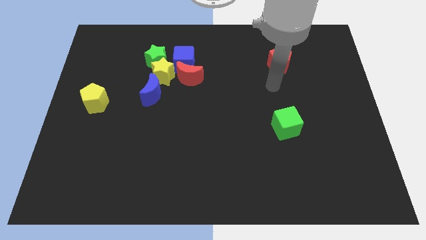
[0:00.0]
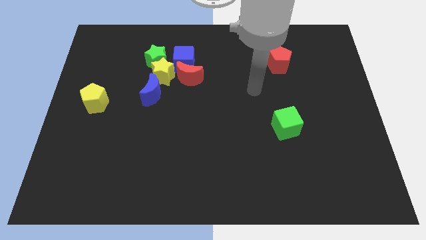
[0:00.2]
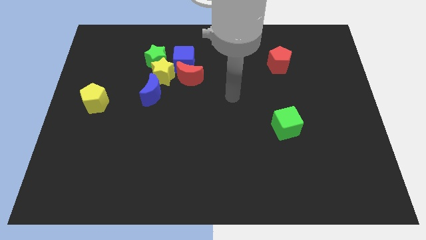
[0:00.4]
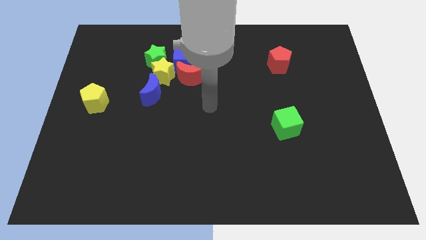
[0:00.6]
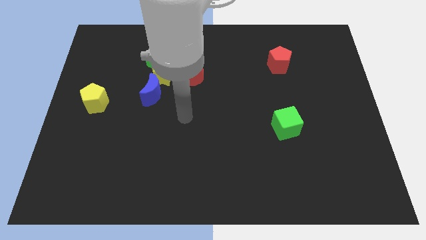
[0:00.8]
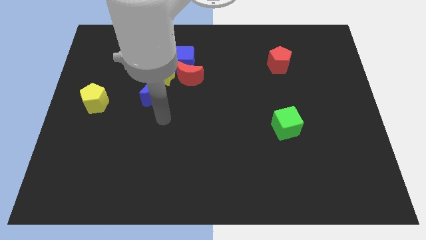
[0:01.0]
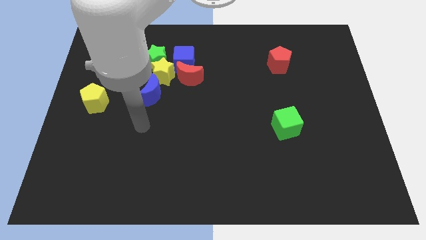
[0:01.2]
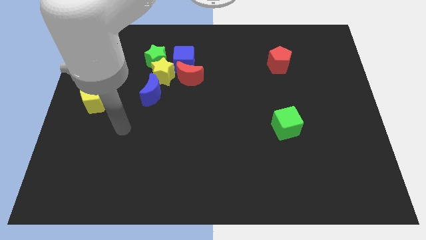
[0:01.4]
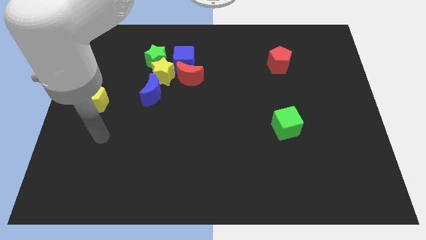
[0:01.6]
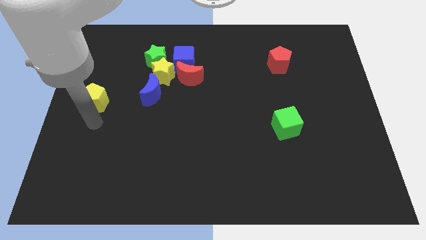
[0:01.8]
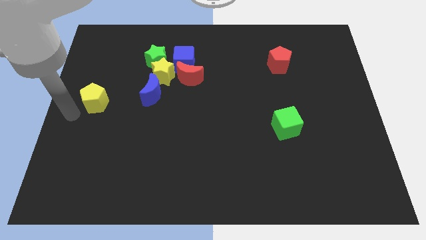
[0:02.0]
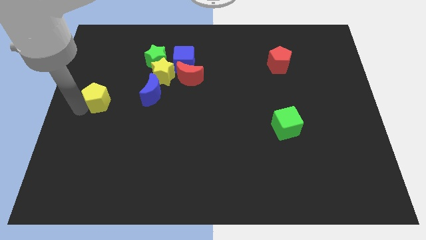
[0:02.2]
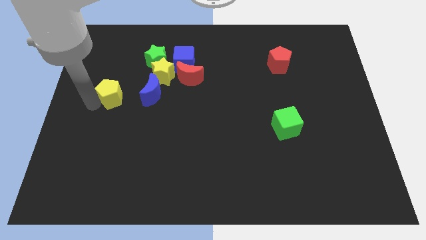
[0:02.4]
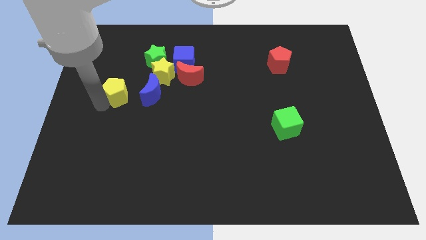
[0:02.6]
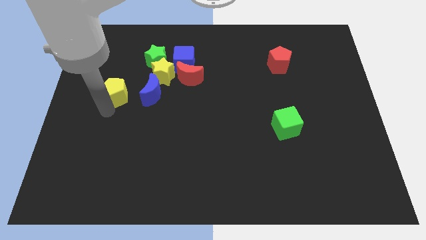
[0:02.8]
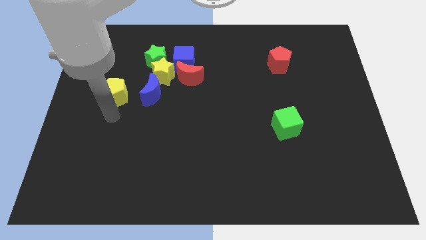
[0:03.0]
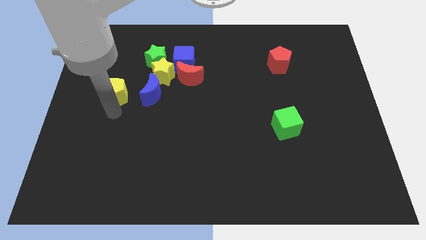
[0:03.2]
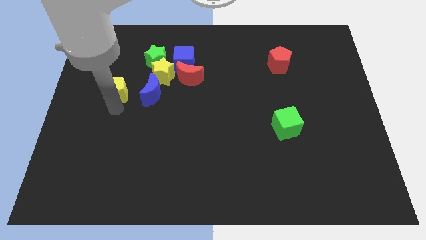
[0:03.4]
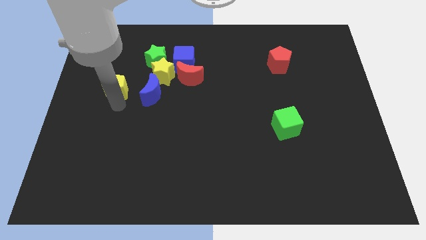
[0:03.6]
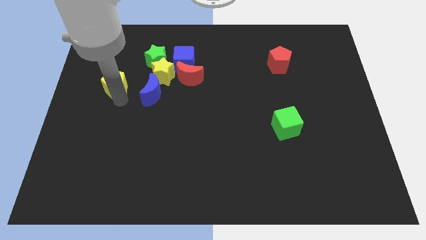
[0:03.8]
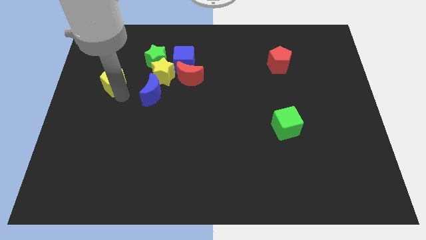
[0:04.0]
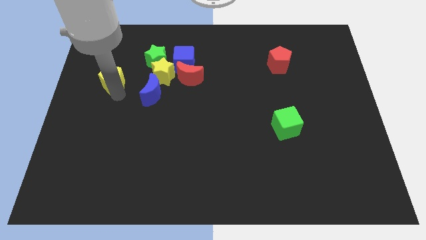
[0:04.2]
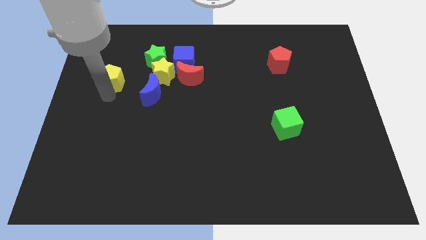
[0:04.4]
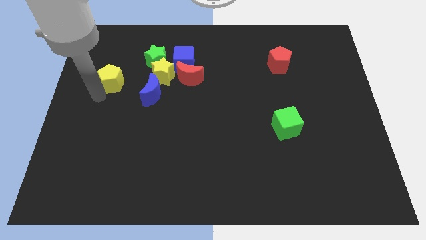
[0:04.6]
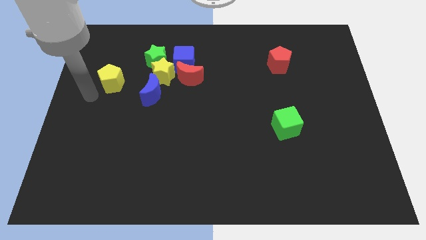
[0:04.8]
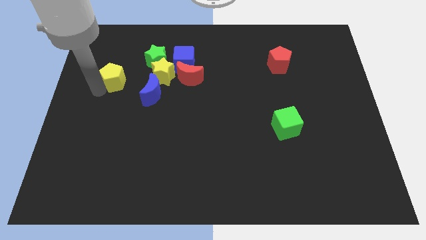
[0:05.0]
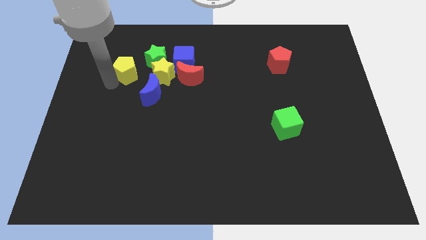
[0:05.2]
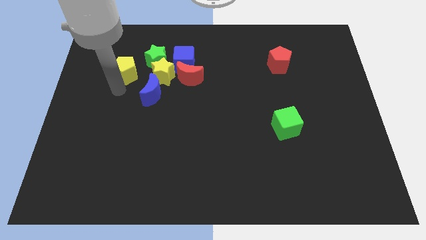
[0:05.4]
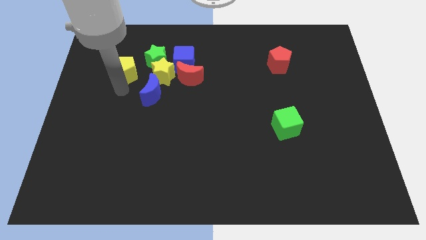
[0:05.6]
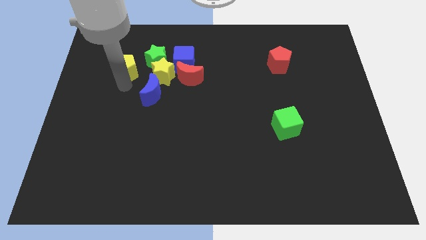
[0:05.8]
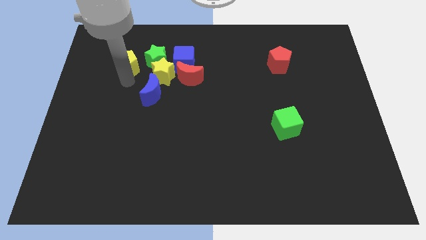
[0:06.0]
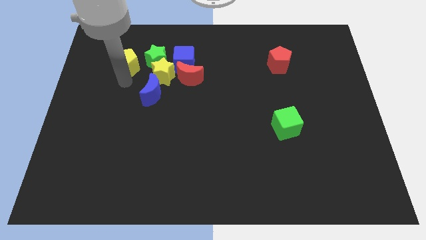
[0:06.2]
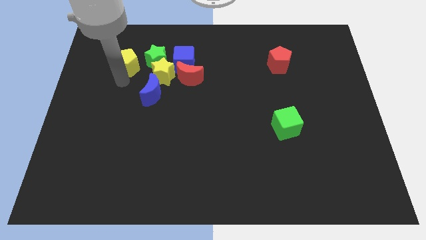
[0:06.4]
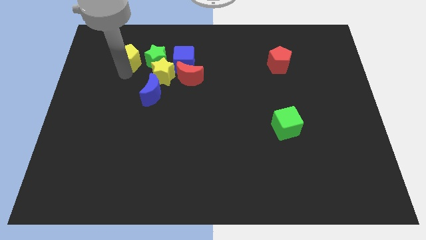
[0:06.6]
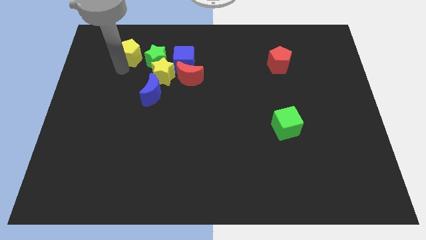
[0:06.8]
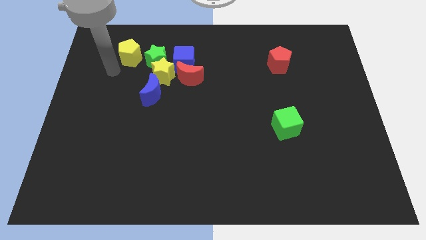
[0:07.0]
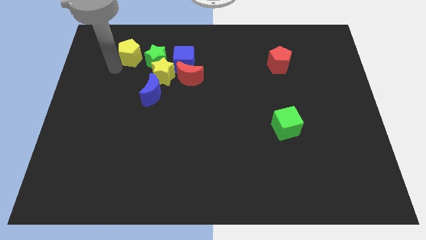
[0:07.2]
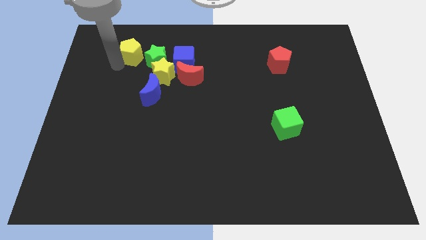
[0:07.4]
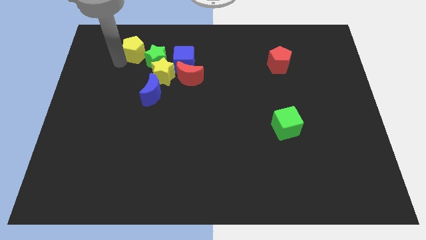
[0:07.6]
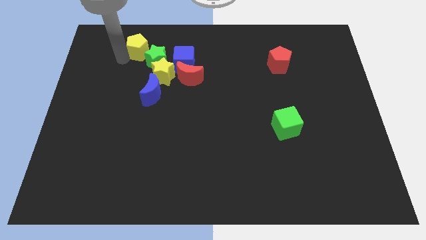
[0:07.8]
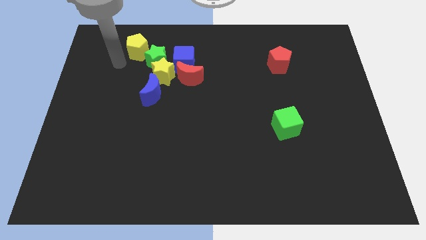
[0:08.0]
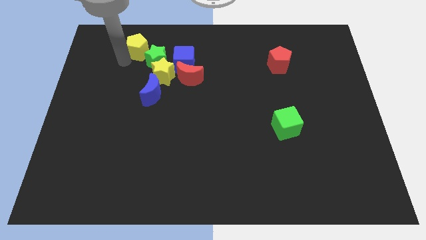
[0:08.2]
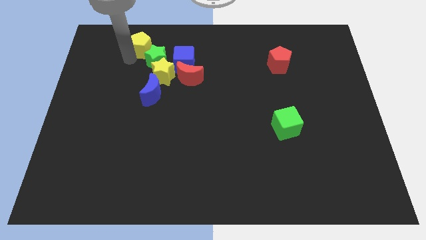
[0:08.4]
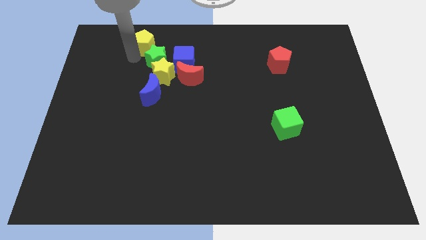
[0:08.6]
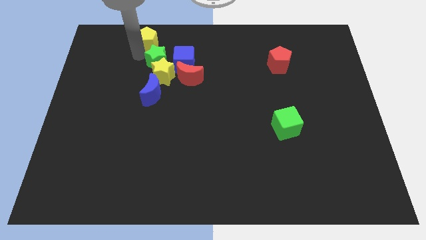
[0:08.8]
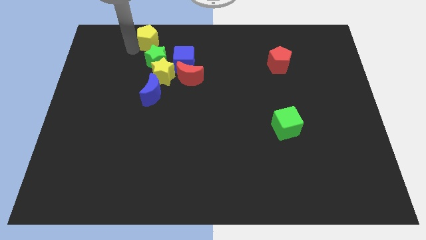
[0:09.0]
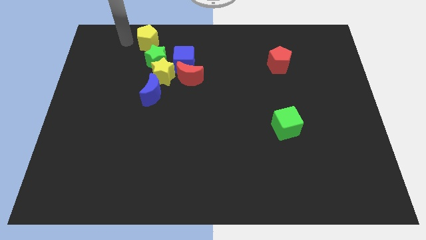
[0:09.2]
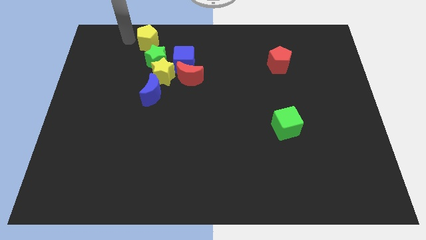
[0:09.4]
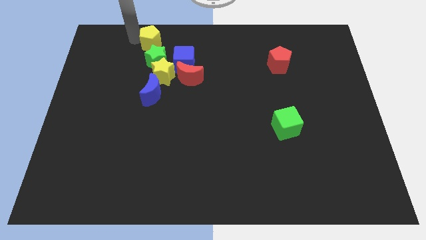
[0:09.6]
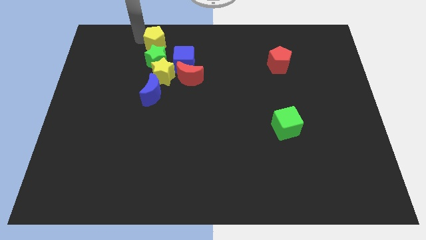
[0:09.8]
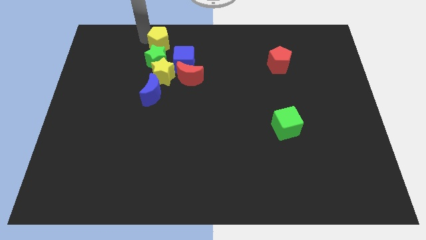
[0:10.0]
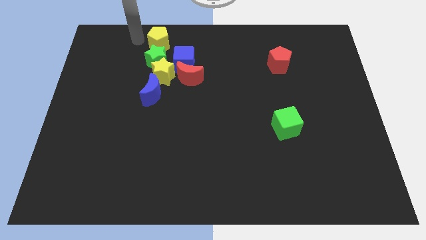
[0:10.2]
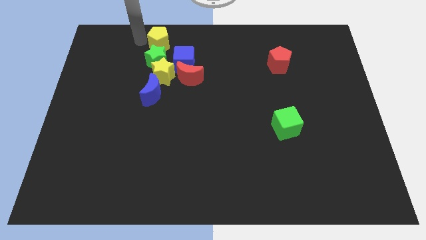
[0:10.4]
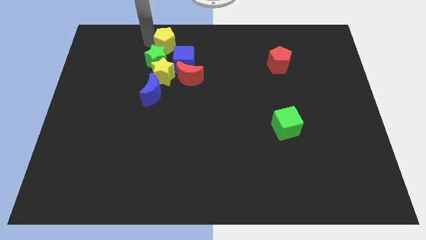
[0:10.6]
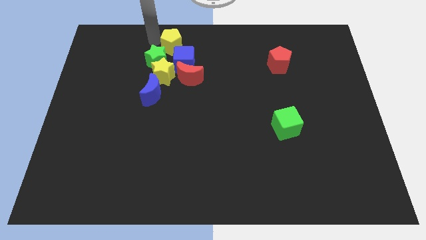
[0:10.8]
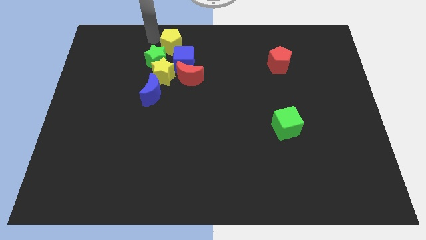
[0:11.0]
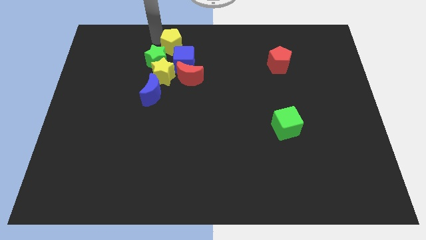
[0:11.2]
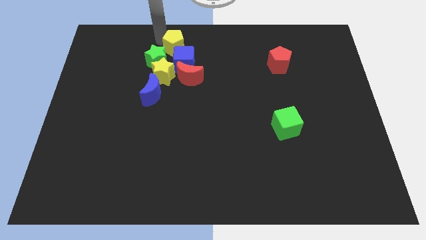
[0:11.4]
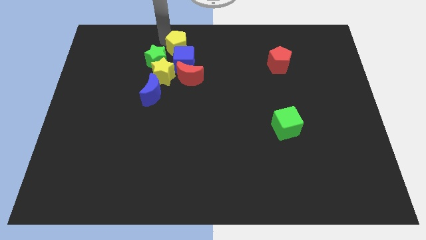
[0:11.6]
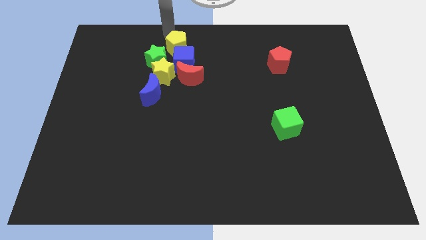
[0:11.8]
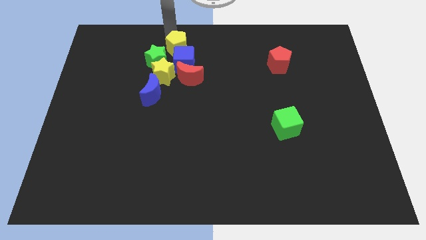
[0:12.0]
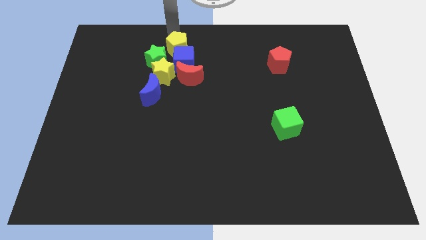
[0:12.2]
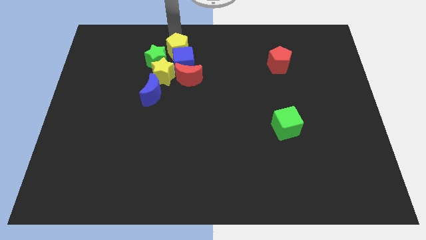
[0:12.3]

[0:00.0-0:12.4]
slide the yellow pentagon diagonally up and to the right of the yellow star
